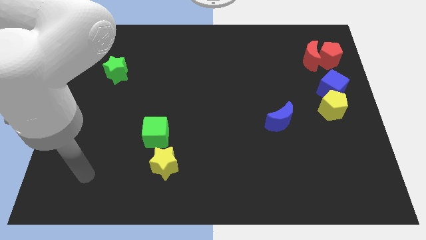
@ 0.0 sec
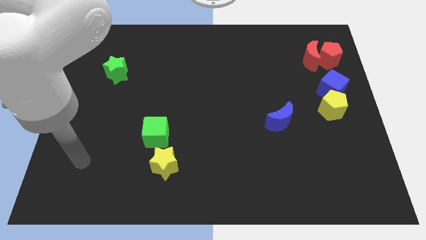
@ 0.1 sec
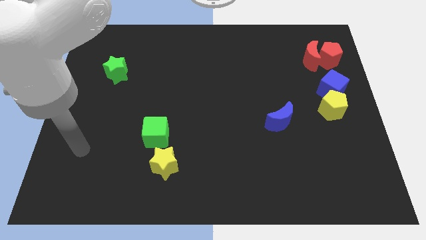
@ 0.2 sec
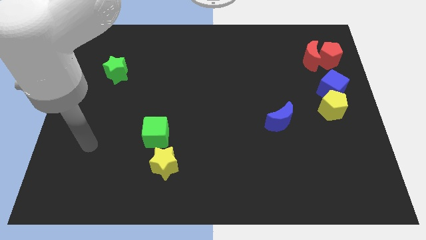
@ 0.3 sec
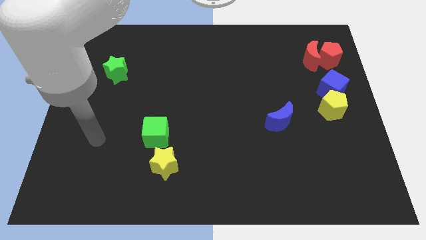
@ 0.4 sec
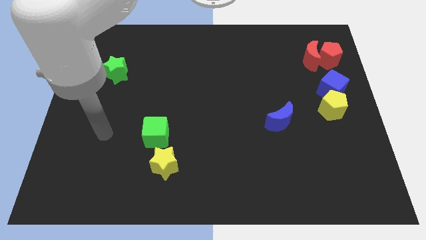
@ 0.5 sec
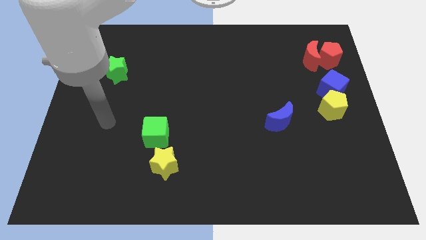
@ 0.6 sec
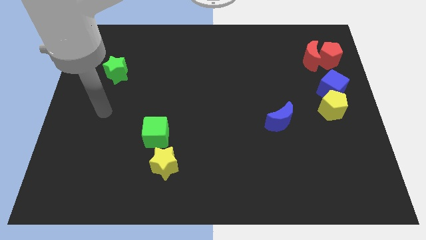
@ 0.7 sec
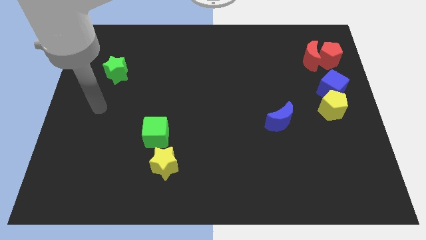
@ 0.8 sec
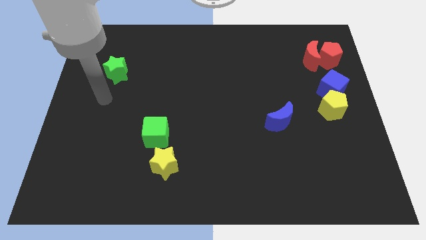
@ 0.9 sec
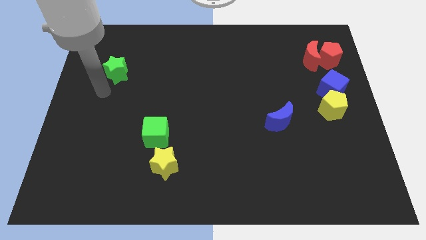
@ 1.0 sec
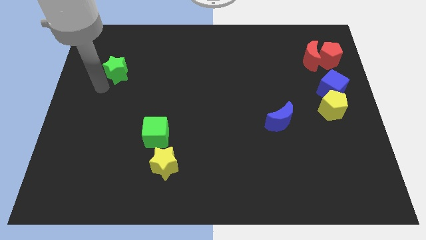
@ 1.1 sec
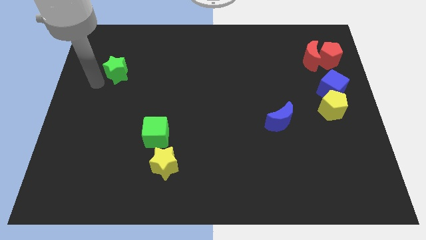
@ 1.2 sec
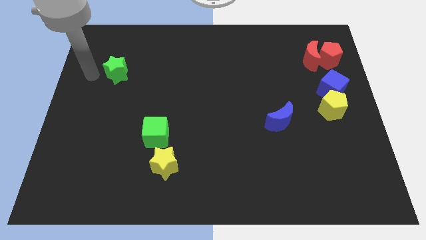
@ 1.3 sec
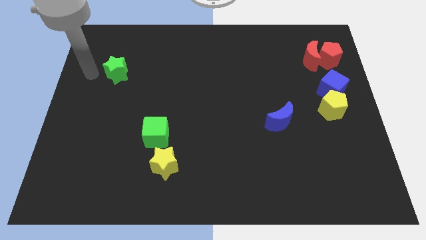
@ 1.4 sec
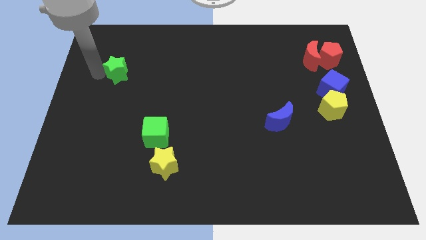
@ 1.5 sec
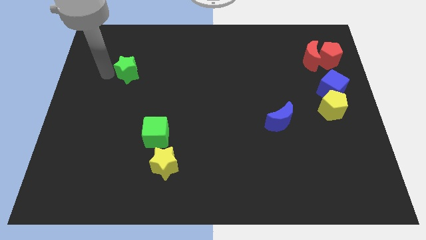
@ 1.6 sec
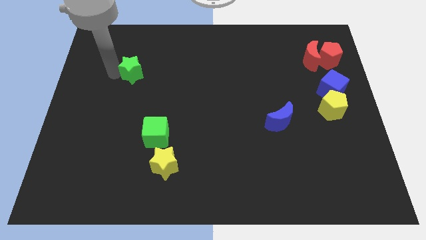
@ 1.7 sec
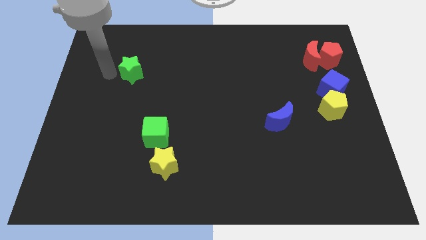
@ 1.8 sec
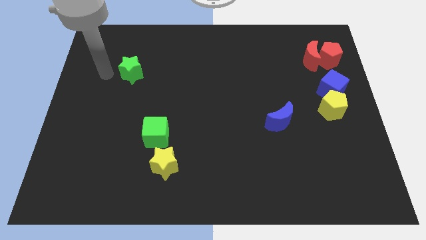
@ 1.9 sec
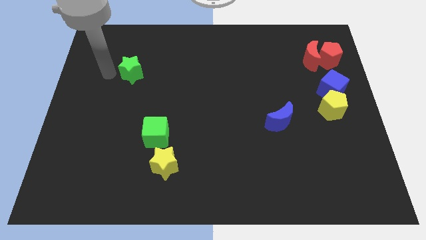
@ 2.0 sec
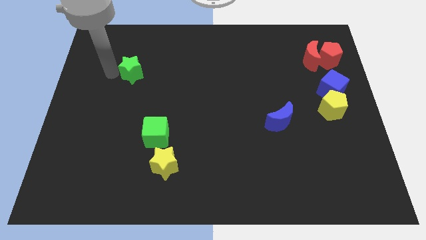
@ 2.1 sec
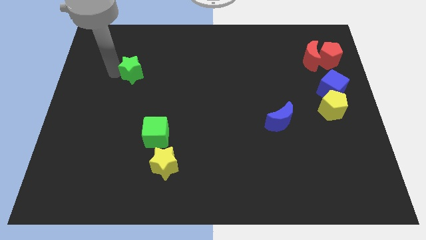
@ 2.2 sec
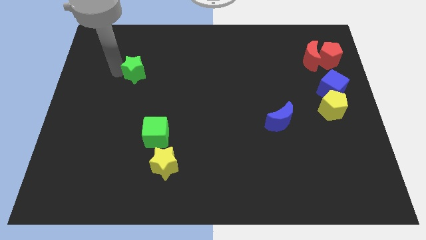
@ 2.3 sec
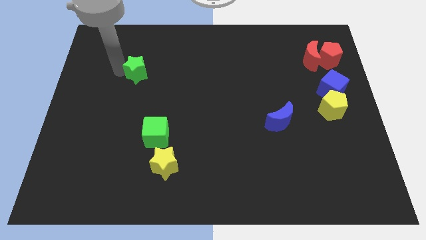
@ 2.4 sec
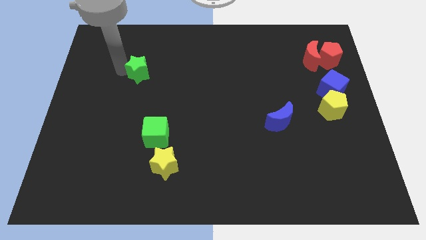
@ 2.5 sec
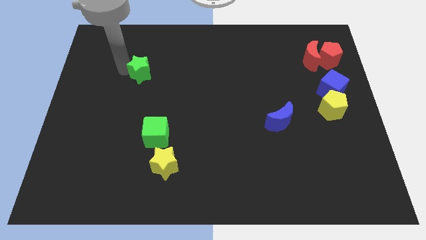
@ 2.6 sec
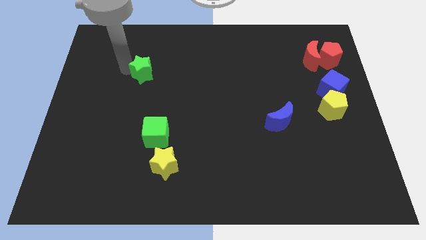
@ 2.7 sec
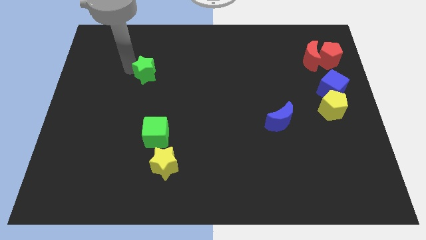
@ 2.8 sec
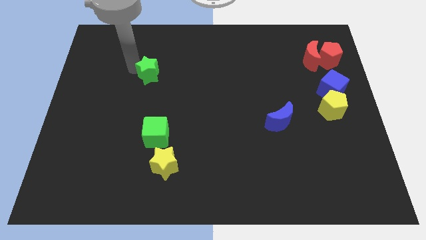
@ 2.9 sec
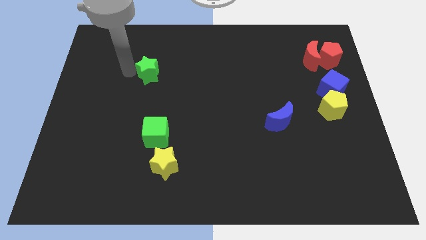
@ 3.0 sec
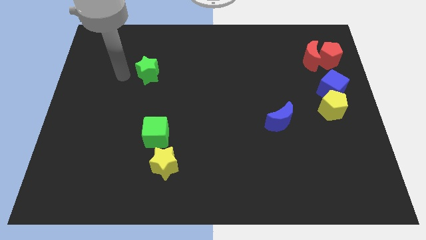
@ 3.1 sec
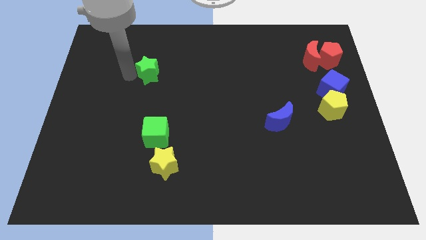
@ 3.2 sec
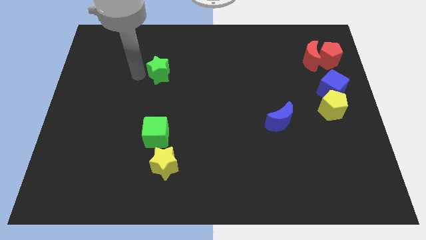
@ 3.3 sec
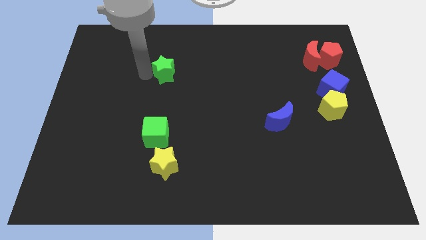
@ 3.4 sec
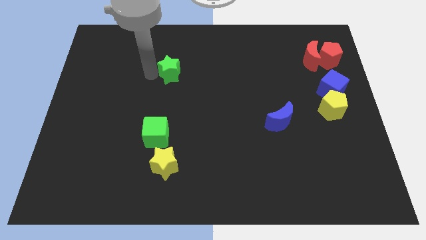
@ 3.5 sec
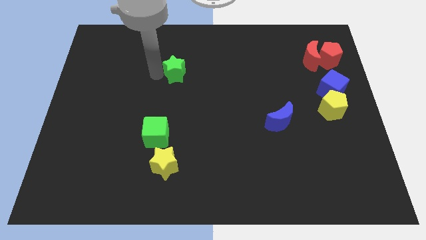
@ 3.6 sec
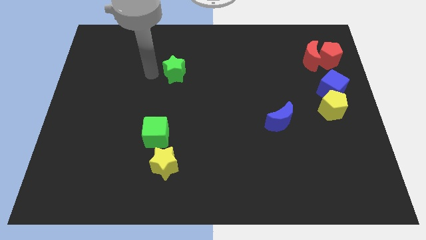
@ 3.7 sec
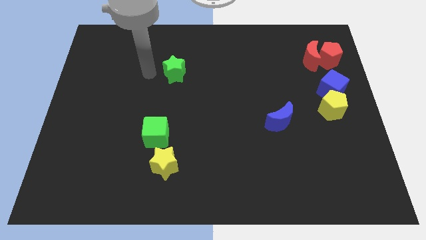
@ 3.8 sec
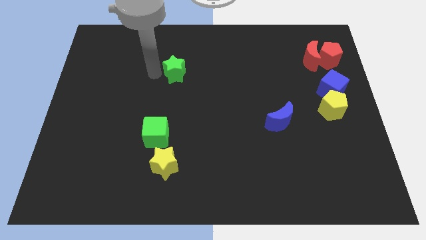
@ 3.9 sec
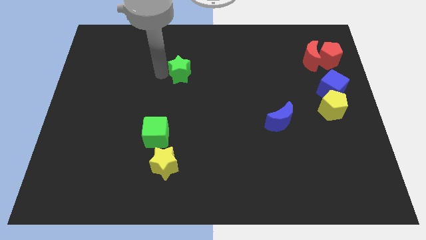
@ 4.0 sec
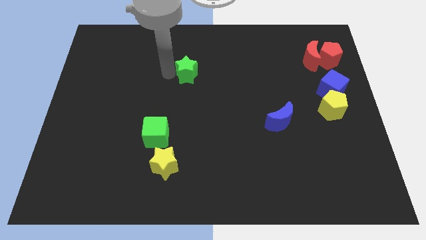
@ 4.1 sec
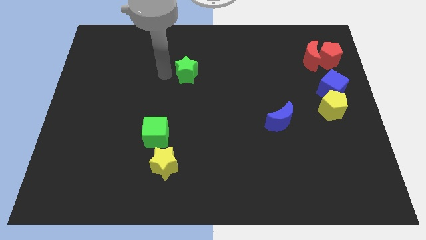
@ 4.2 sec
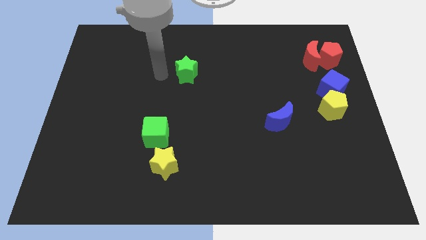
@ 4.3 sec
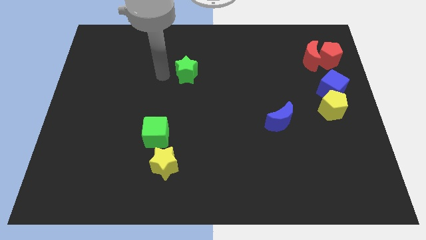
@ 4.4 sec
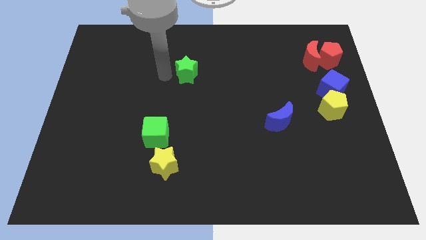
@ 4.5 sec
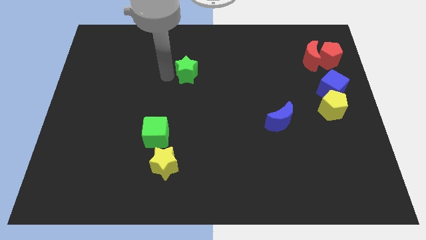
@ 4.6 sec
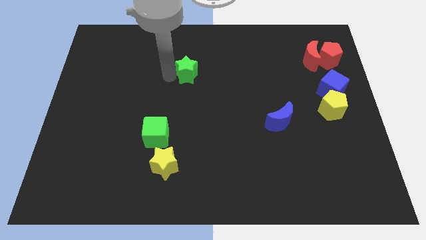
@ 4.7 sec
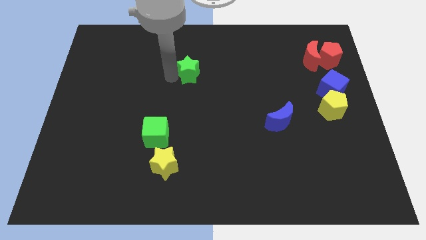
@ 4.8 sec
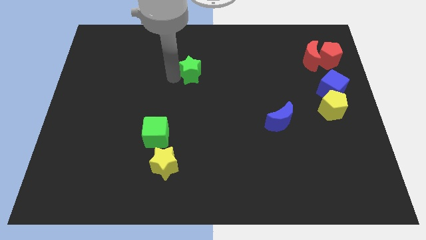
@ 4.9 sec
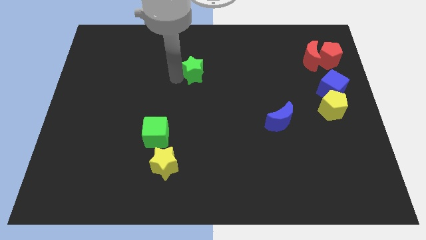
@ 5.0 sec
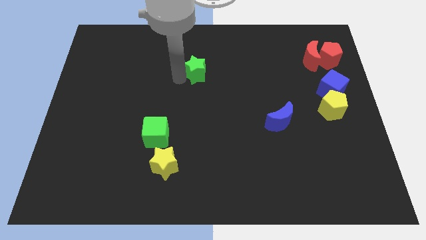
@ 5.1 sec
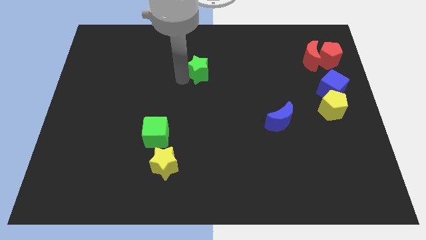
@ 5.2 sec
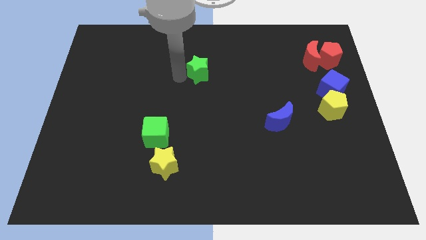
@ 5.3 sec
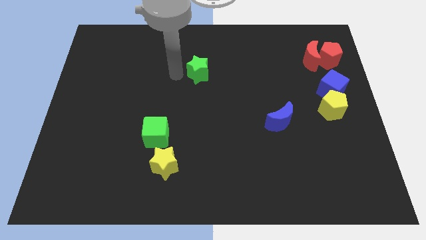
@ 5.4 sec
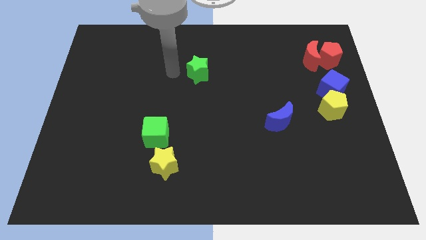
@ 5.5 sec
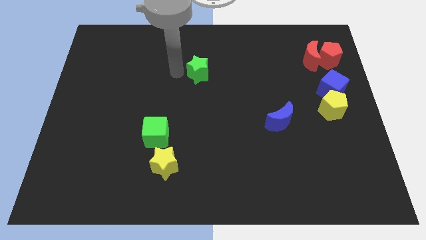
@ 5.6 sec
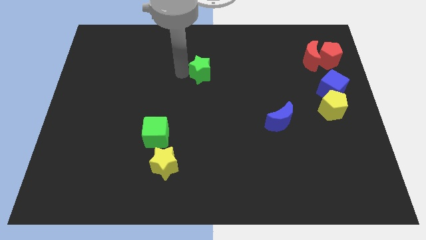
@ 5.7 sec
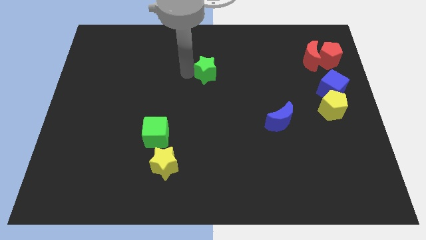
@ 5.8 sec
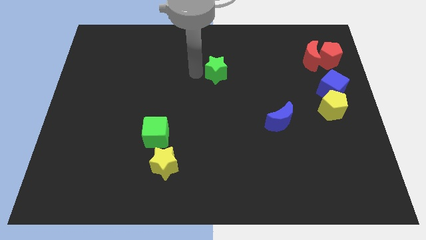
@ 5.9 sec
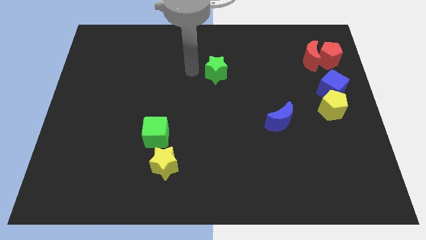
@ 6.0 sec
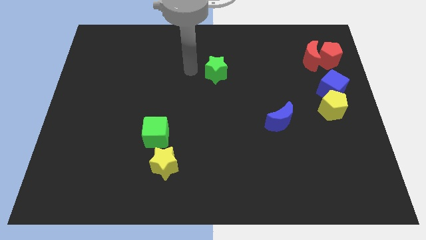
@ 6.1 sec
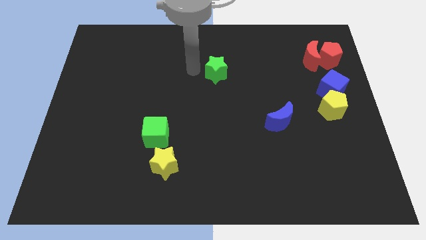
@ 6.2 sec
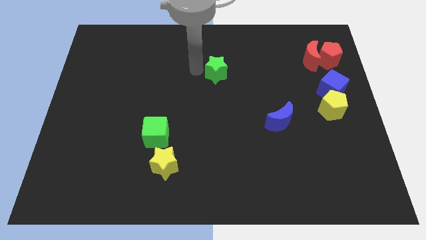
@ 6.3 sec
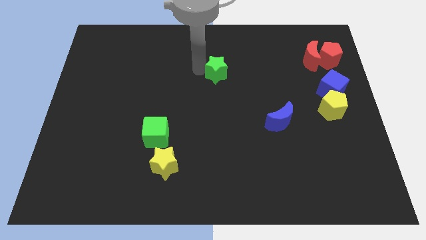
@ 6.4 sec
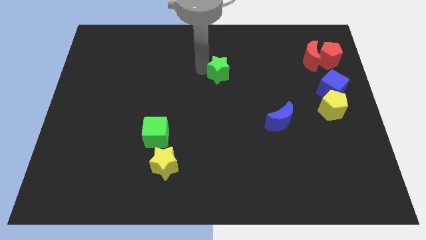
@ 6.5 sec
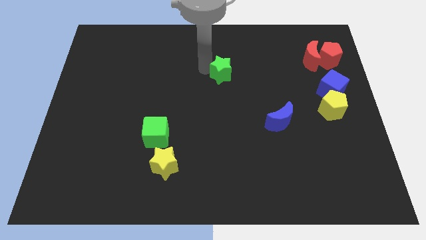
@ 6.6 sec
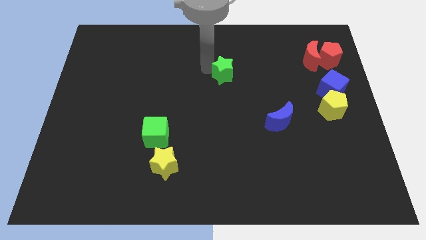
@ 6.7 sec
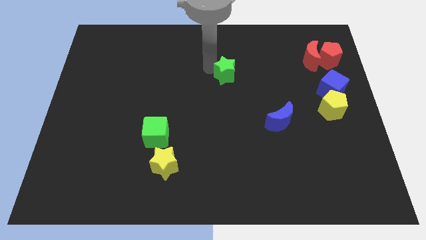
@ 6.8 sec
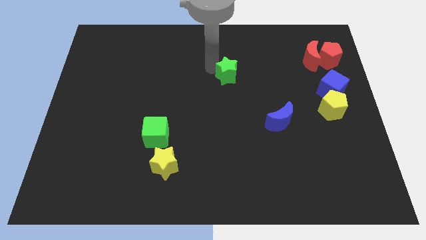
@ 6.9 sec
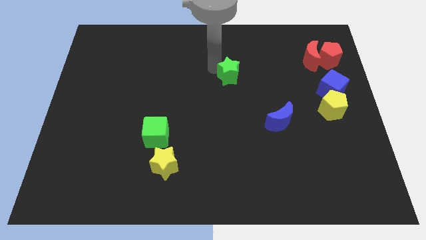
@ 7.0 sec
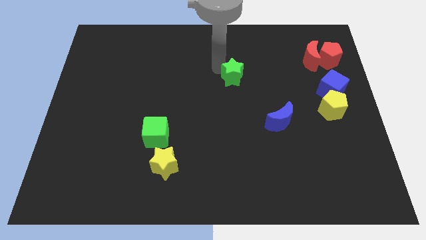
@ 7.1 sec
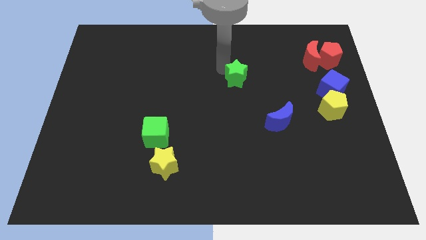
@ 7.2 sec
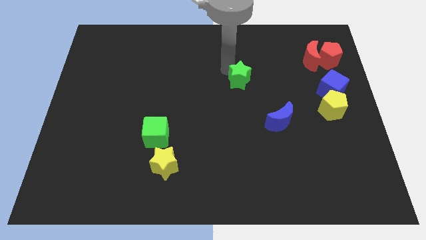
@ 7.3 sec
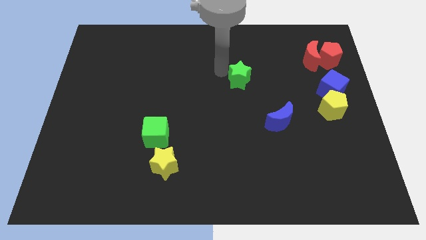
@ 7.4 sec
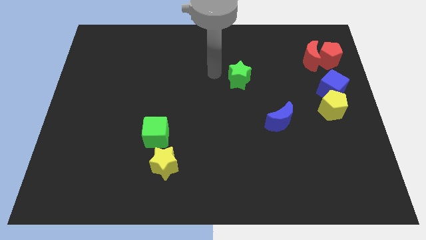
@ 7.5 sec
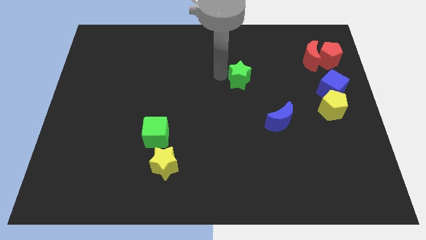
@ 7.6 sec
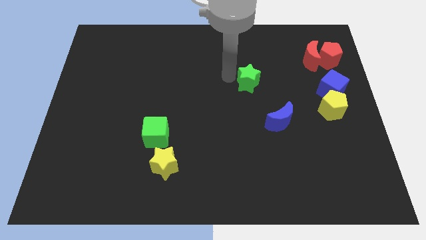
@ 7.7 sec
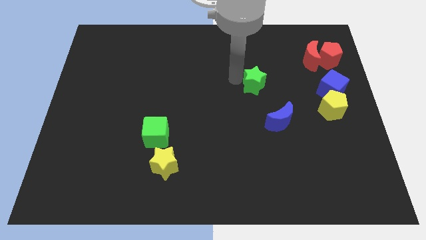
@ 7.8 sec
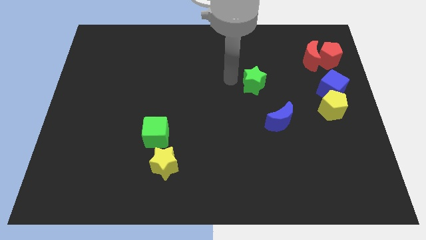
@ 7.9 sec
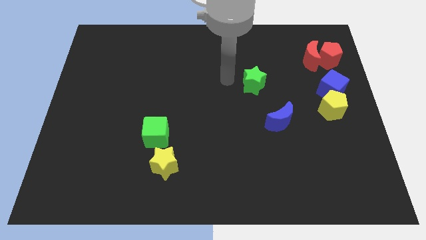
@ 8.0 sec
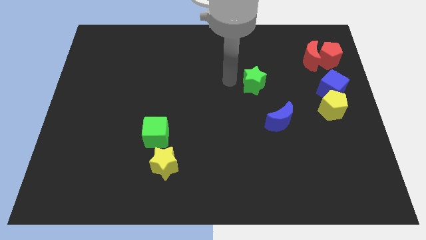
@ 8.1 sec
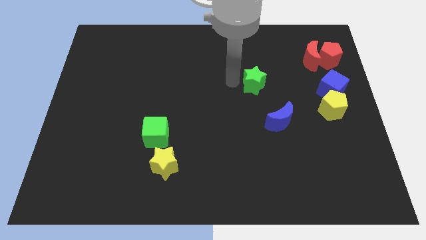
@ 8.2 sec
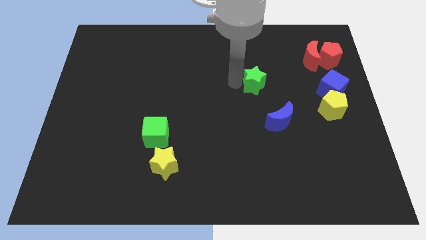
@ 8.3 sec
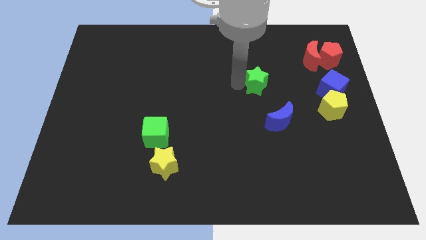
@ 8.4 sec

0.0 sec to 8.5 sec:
put the green star to the top side of the blue moon
